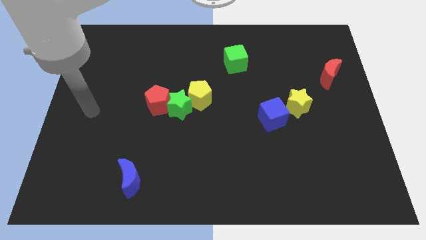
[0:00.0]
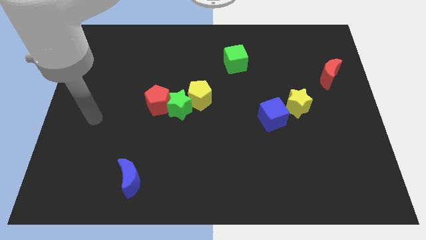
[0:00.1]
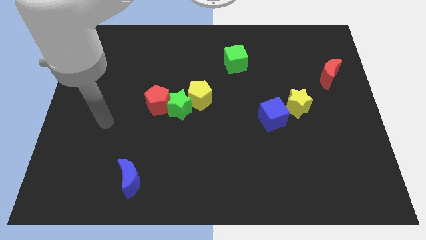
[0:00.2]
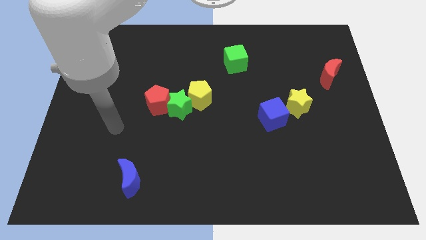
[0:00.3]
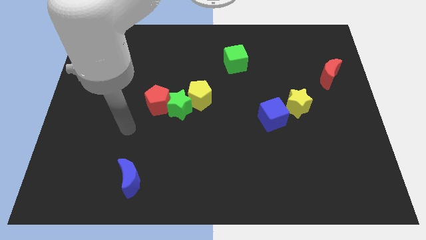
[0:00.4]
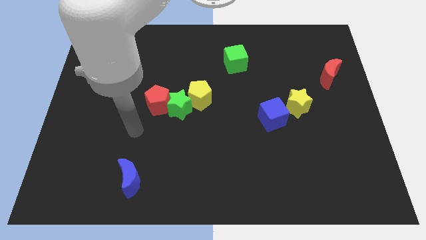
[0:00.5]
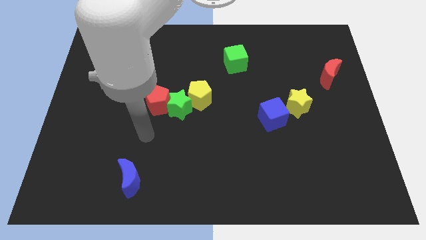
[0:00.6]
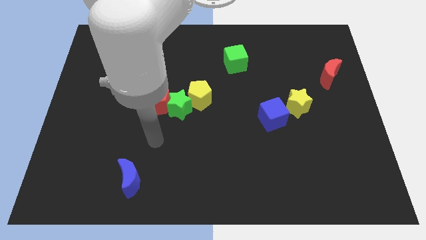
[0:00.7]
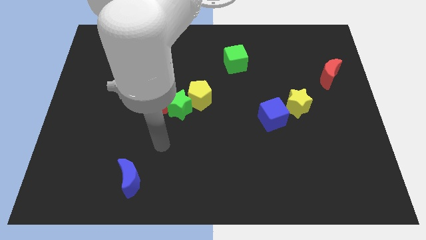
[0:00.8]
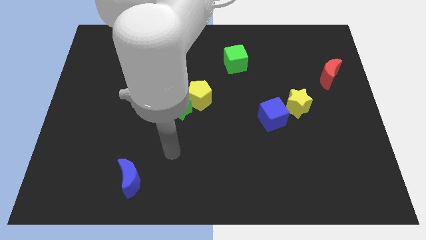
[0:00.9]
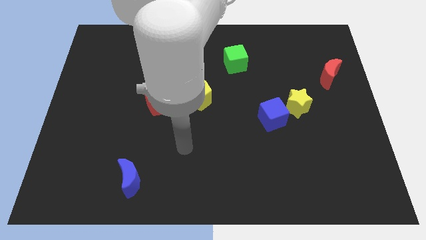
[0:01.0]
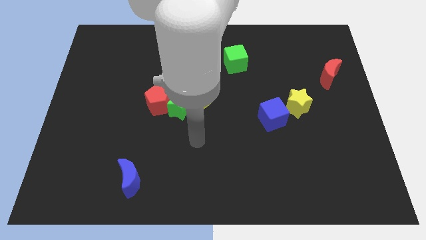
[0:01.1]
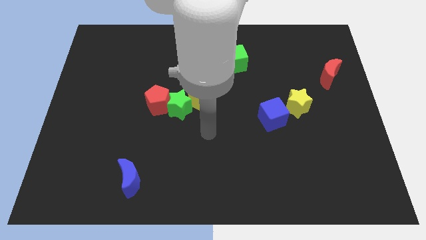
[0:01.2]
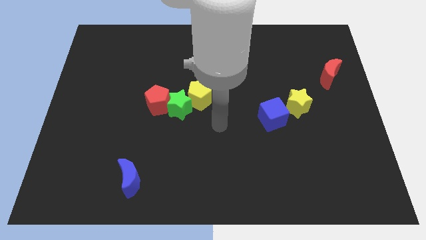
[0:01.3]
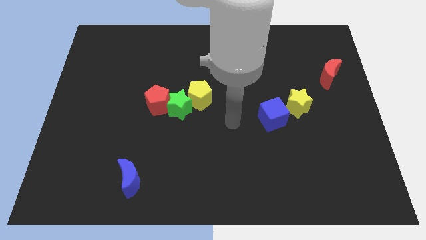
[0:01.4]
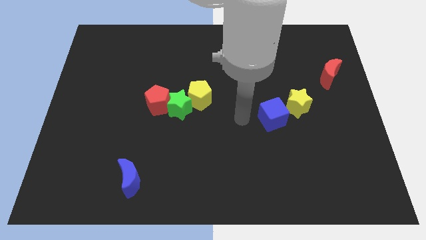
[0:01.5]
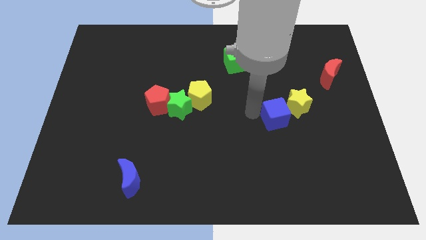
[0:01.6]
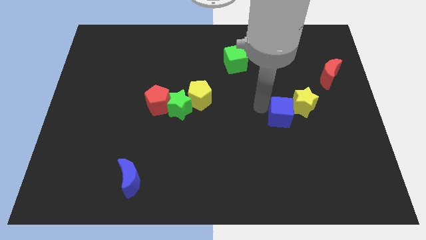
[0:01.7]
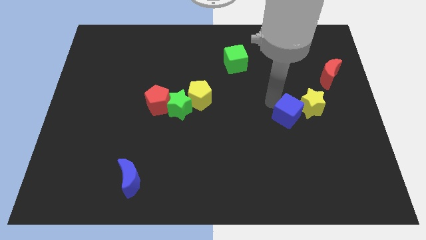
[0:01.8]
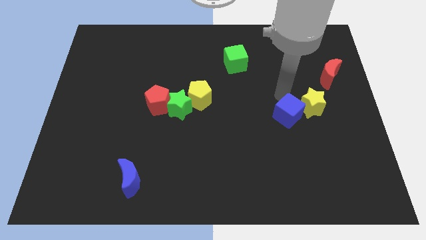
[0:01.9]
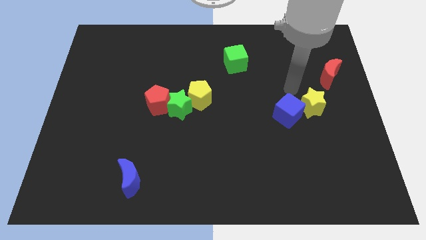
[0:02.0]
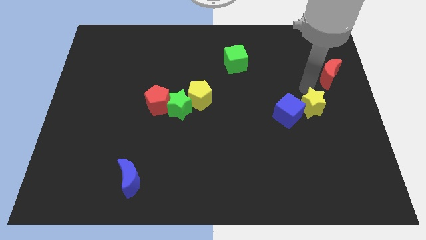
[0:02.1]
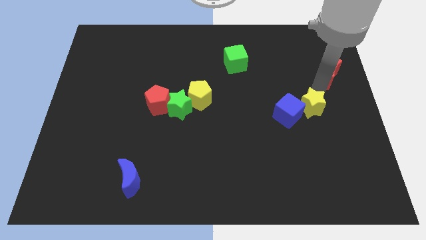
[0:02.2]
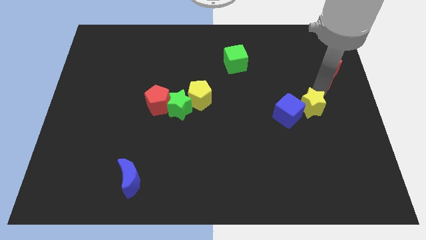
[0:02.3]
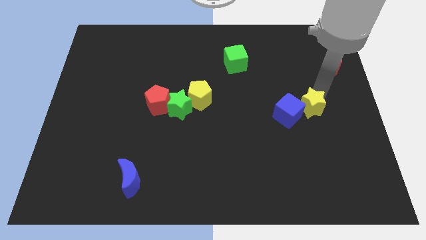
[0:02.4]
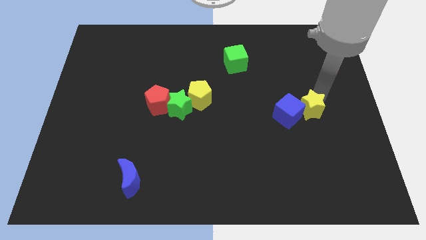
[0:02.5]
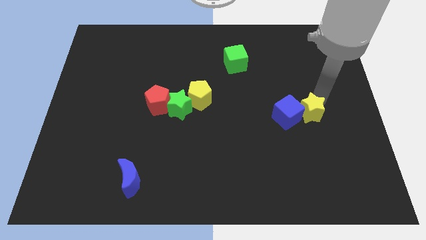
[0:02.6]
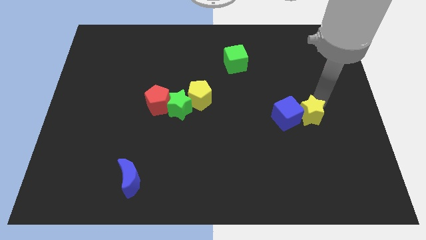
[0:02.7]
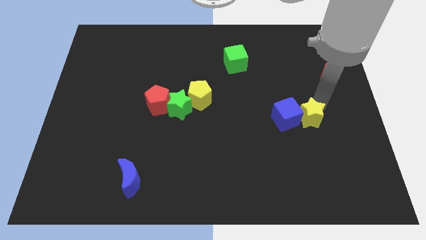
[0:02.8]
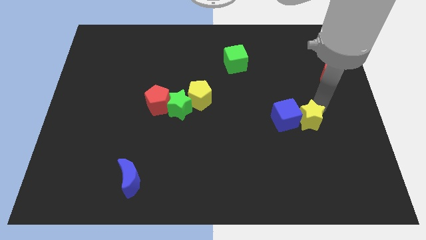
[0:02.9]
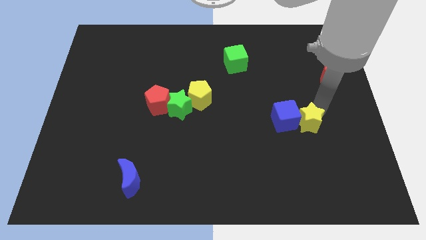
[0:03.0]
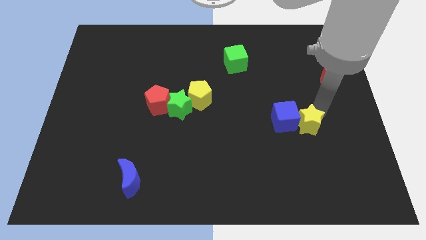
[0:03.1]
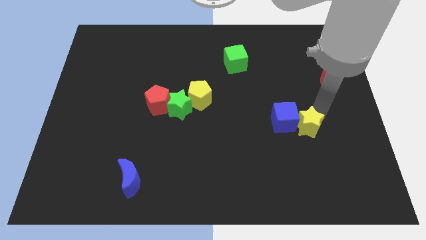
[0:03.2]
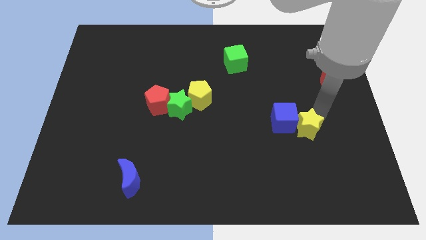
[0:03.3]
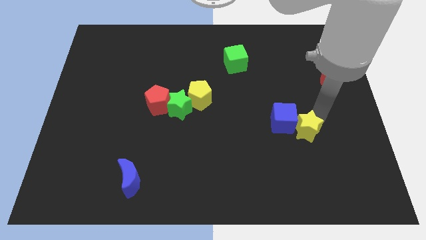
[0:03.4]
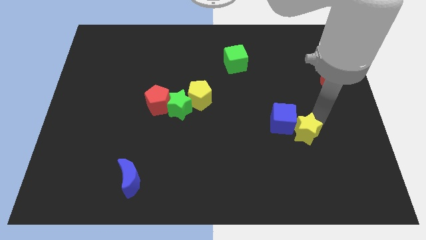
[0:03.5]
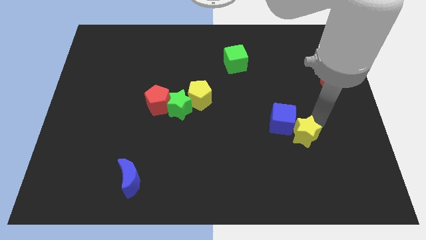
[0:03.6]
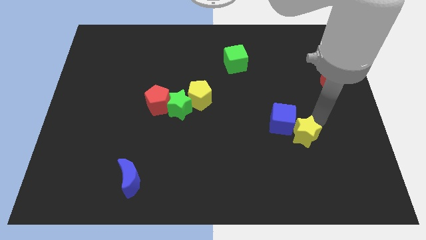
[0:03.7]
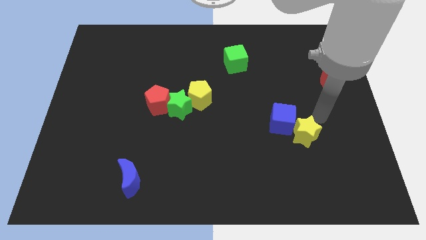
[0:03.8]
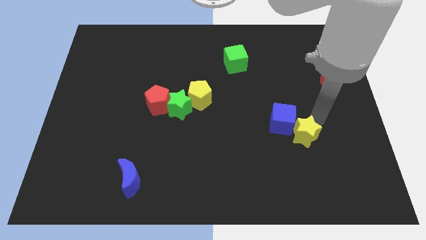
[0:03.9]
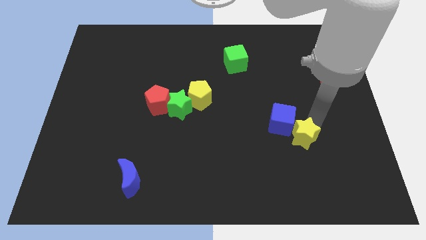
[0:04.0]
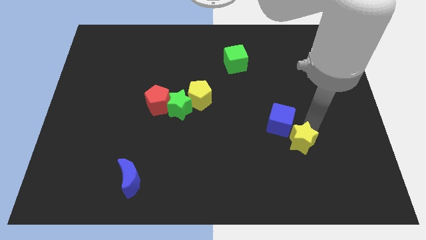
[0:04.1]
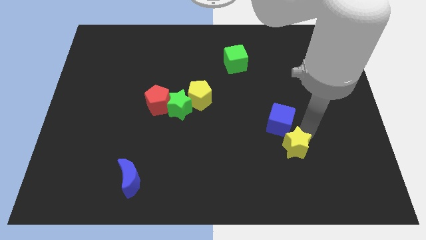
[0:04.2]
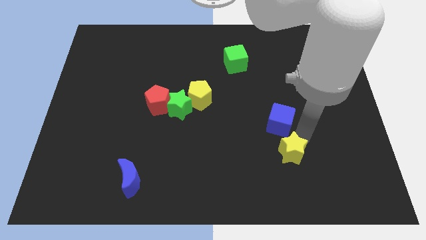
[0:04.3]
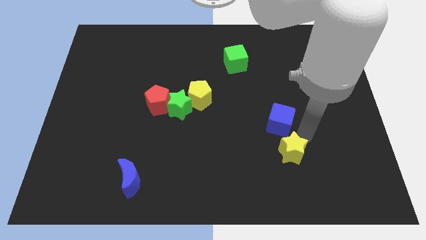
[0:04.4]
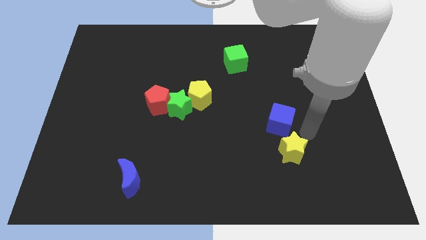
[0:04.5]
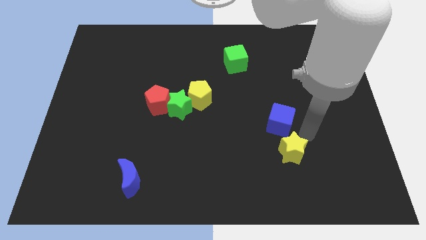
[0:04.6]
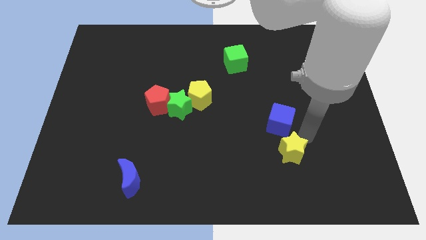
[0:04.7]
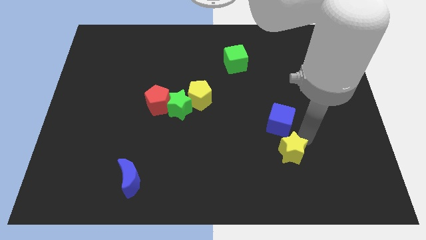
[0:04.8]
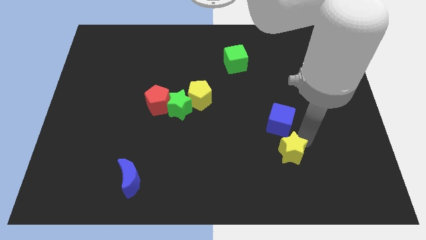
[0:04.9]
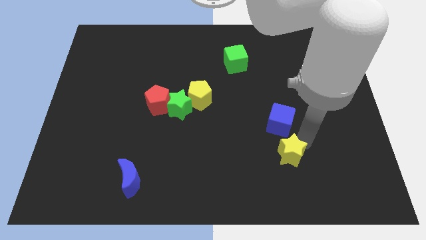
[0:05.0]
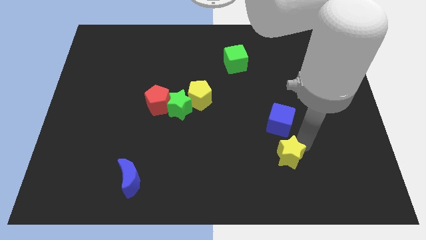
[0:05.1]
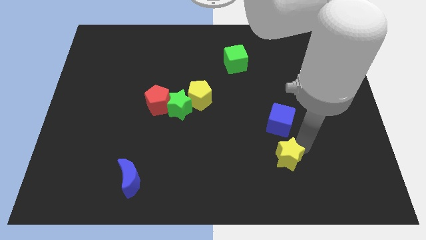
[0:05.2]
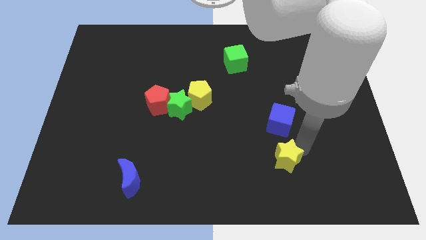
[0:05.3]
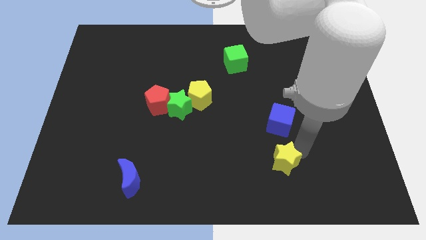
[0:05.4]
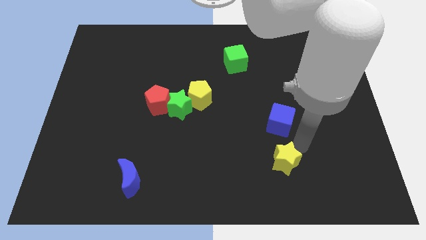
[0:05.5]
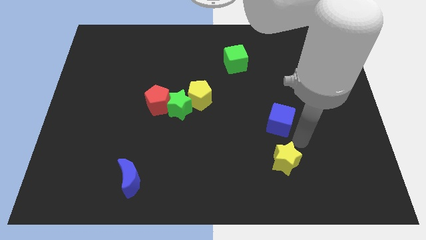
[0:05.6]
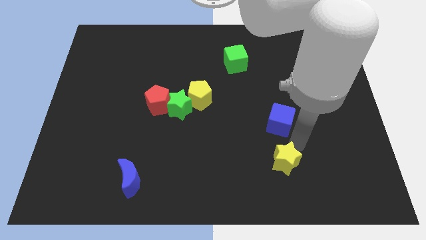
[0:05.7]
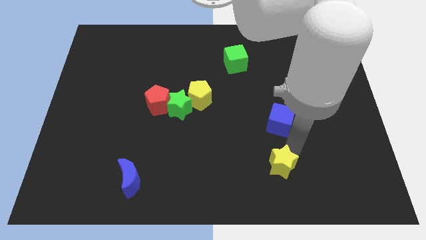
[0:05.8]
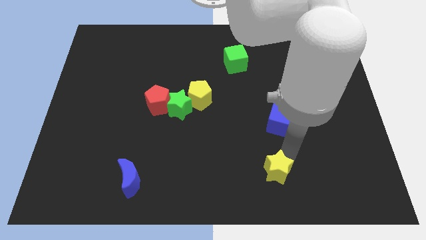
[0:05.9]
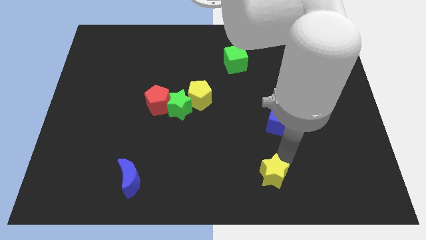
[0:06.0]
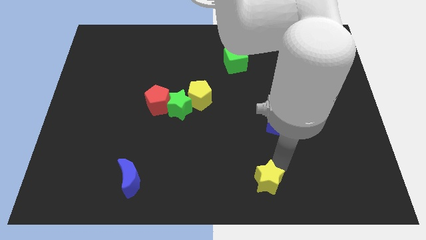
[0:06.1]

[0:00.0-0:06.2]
put the yellow star to the bottom
